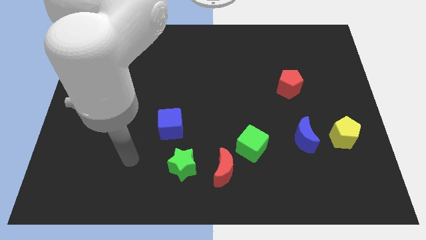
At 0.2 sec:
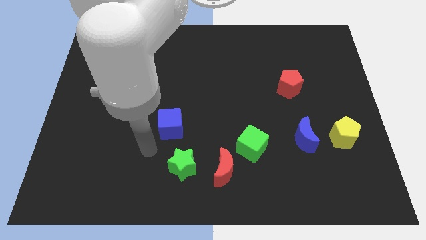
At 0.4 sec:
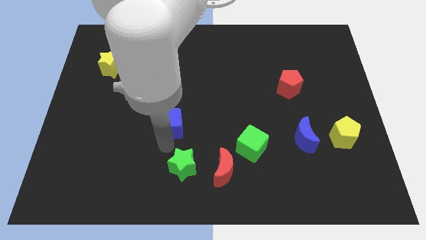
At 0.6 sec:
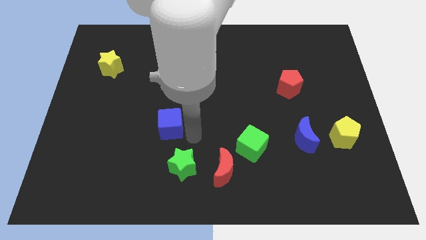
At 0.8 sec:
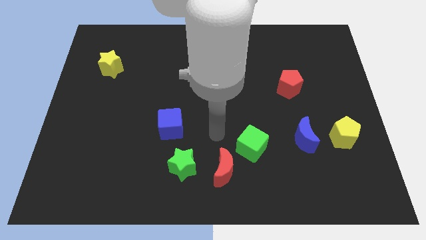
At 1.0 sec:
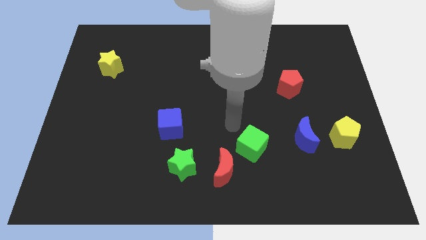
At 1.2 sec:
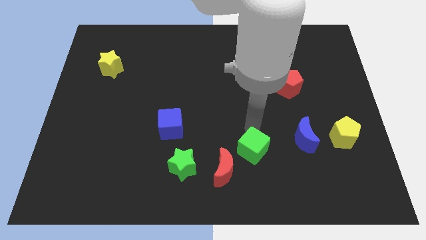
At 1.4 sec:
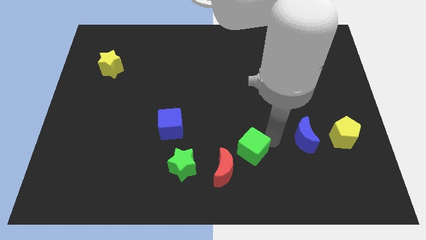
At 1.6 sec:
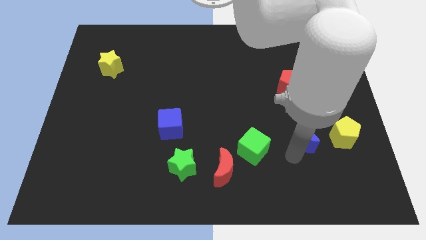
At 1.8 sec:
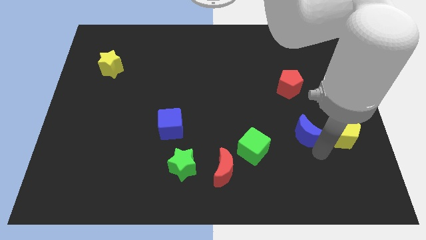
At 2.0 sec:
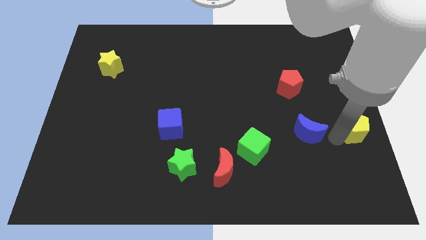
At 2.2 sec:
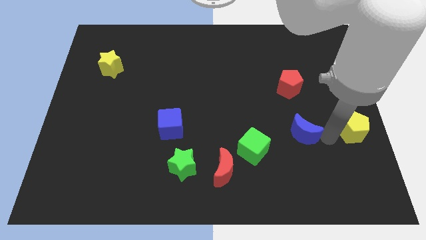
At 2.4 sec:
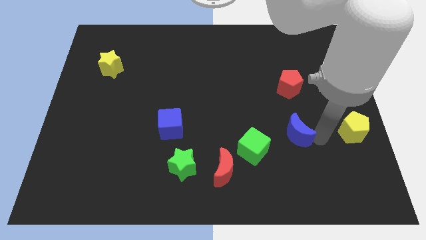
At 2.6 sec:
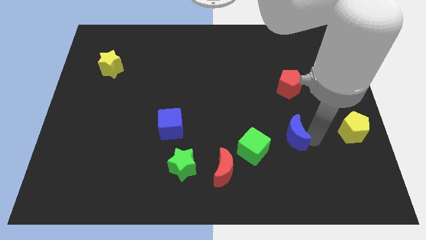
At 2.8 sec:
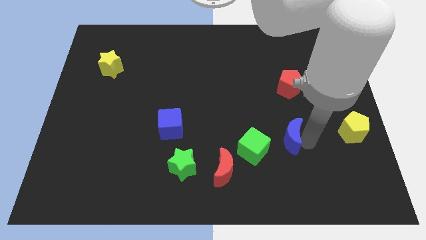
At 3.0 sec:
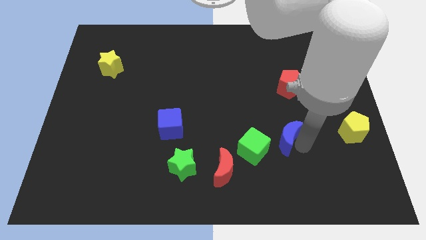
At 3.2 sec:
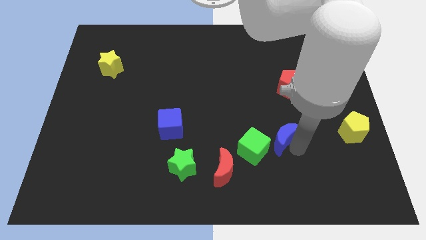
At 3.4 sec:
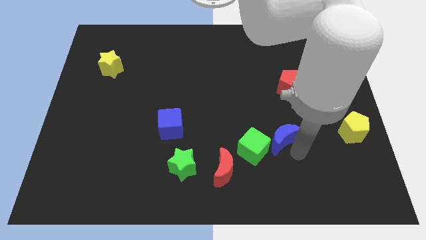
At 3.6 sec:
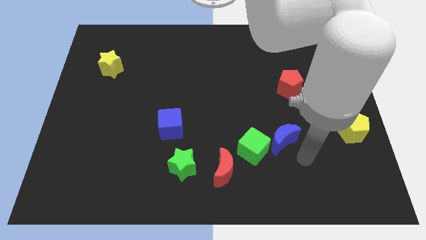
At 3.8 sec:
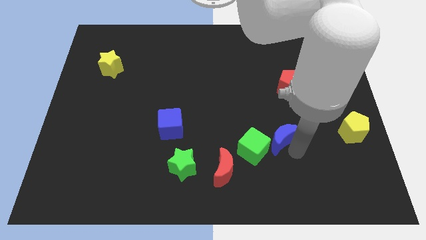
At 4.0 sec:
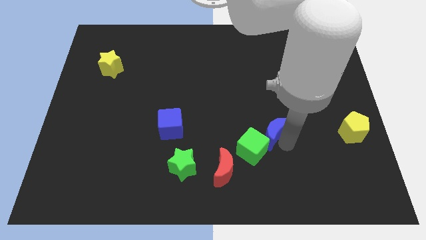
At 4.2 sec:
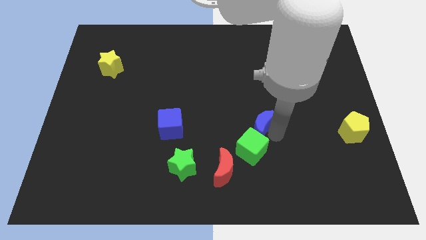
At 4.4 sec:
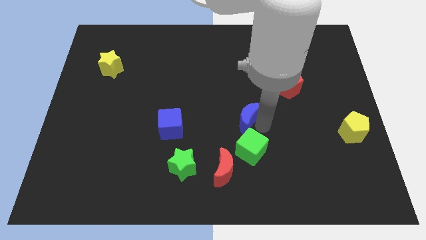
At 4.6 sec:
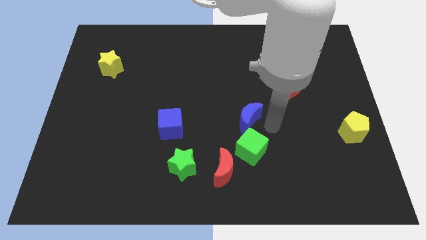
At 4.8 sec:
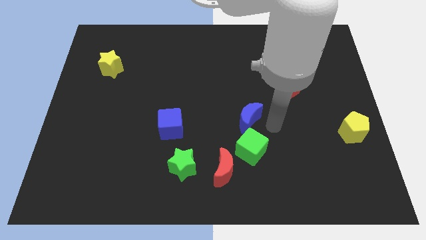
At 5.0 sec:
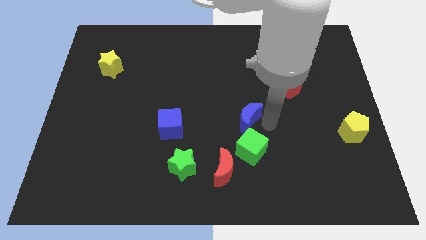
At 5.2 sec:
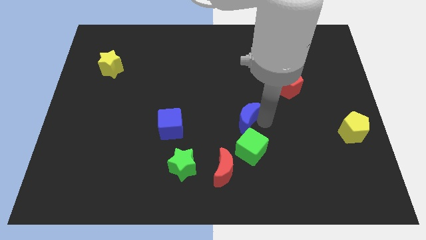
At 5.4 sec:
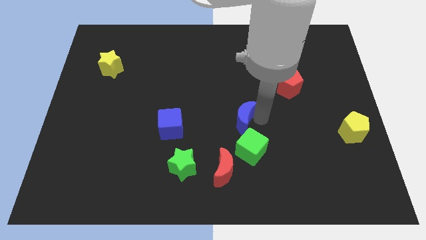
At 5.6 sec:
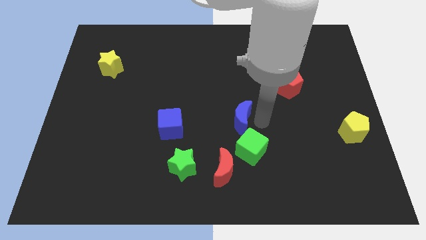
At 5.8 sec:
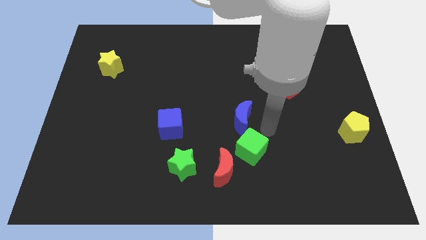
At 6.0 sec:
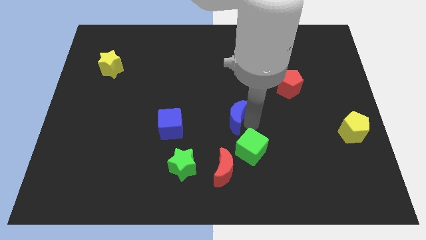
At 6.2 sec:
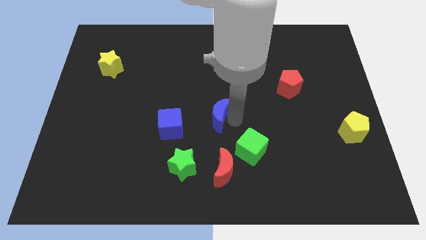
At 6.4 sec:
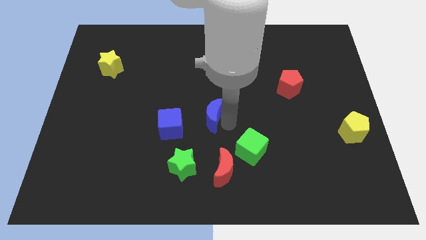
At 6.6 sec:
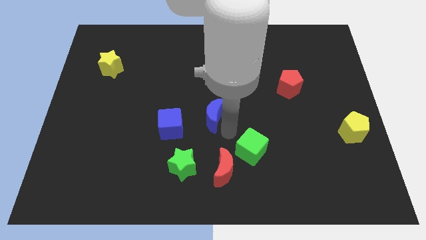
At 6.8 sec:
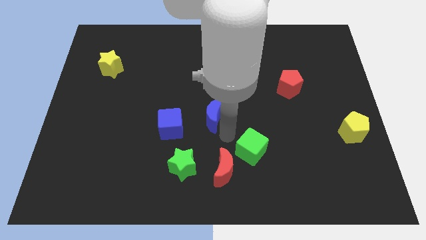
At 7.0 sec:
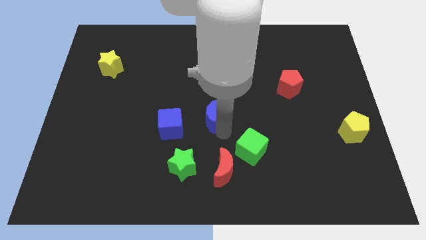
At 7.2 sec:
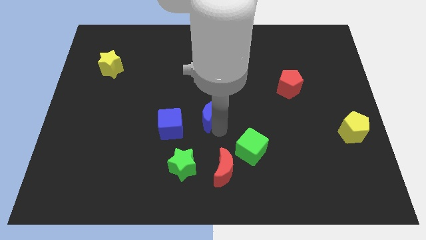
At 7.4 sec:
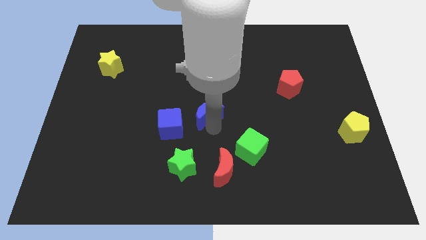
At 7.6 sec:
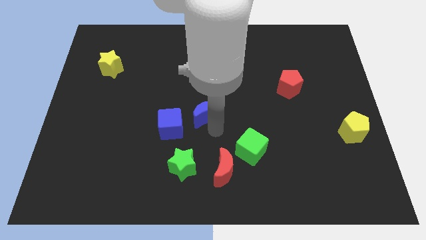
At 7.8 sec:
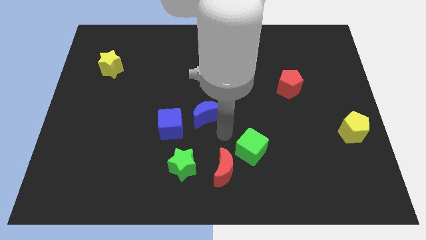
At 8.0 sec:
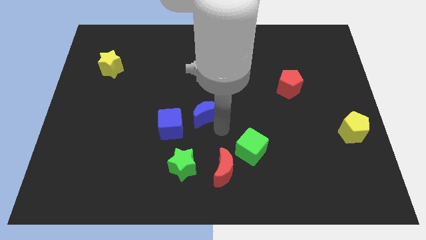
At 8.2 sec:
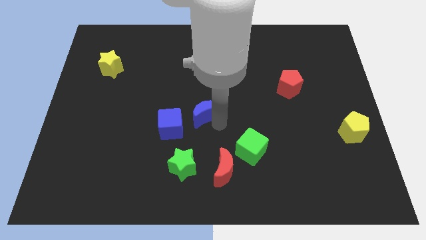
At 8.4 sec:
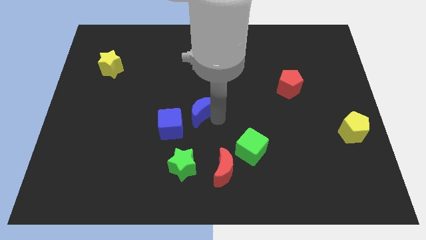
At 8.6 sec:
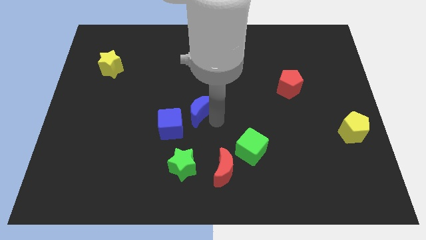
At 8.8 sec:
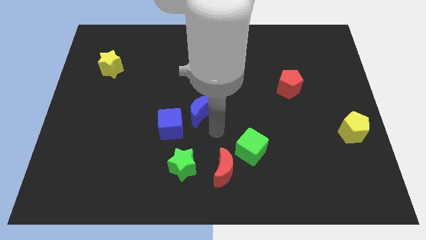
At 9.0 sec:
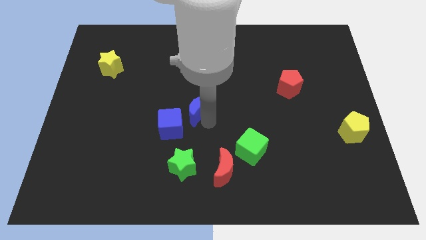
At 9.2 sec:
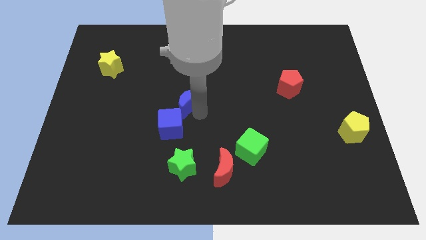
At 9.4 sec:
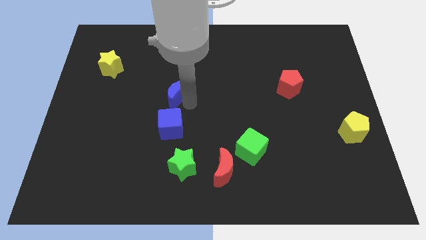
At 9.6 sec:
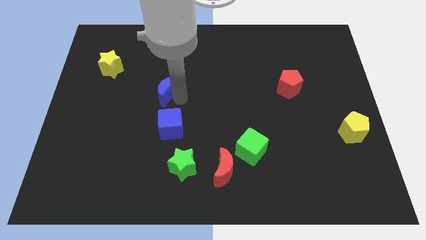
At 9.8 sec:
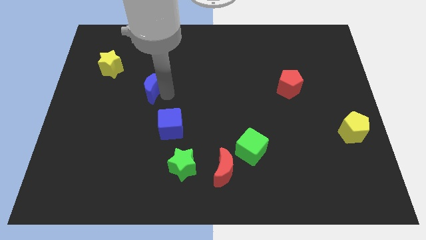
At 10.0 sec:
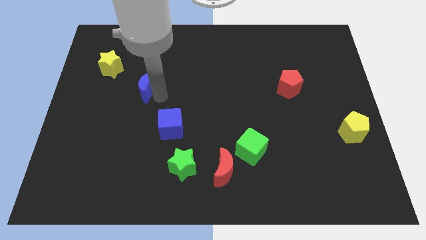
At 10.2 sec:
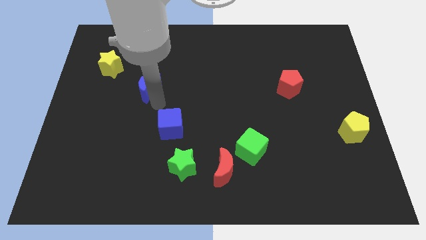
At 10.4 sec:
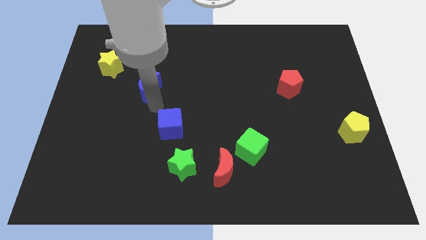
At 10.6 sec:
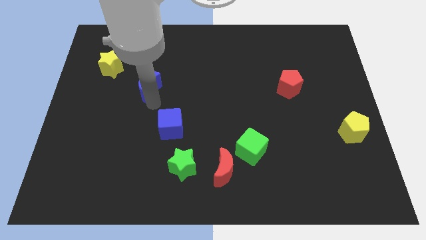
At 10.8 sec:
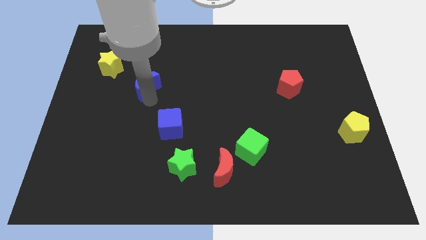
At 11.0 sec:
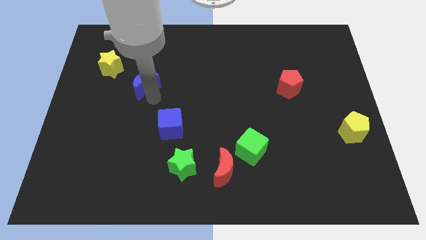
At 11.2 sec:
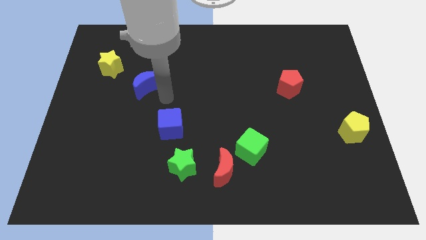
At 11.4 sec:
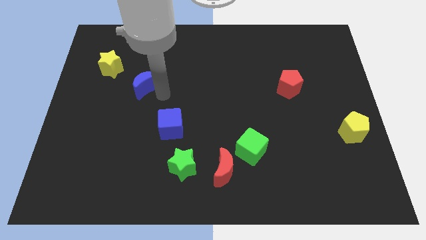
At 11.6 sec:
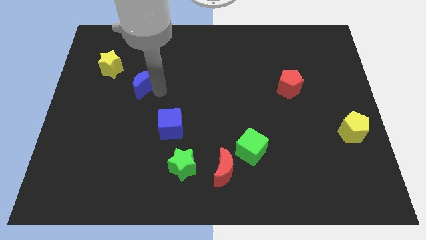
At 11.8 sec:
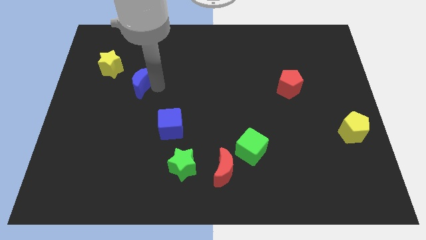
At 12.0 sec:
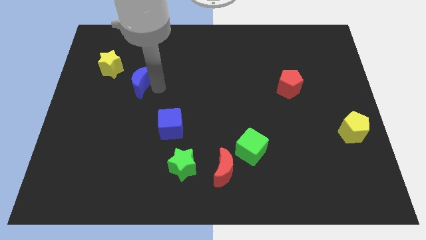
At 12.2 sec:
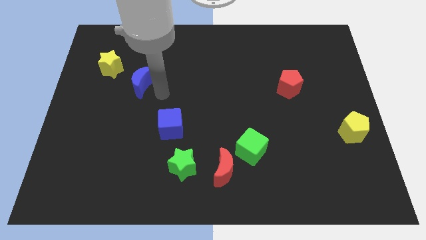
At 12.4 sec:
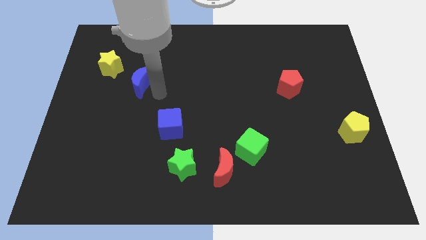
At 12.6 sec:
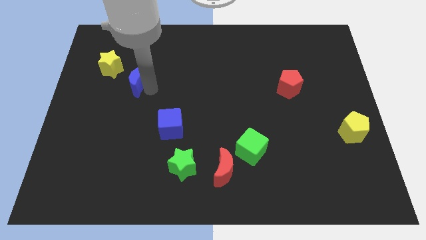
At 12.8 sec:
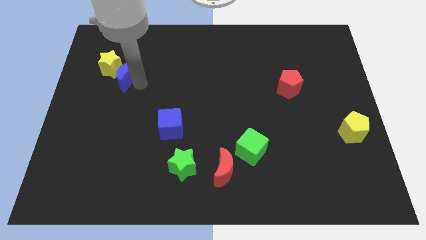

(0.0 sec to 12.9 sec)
move the blue moon next to the yellow star

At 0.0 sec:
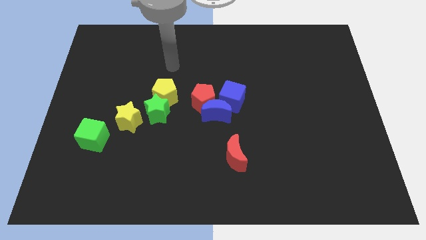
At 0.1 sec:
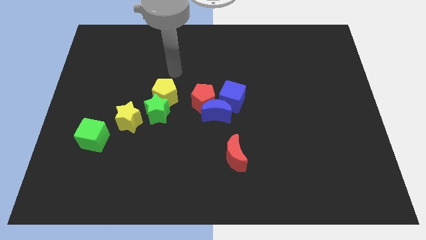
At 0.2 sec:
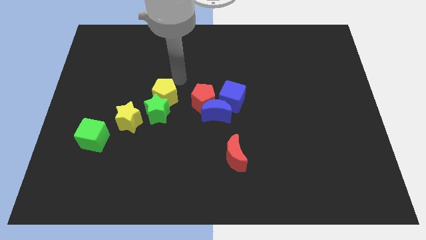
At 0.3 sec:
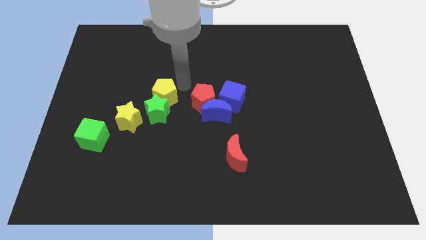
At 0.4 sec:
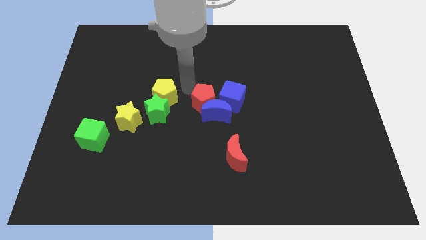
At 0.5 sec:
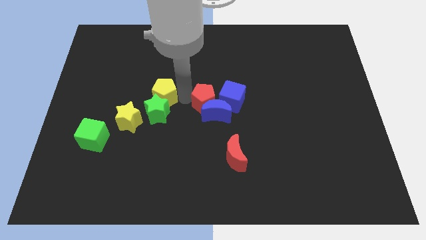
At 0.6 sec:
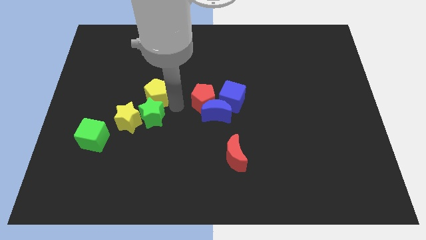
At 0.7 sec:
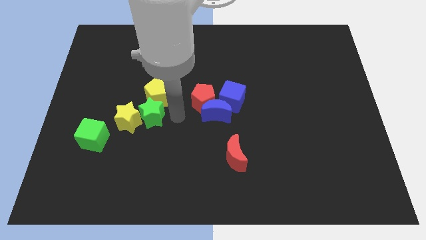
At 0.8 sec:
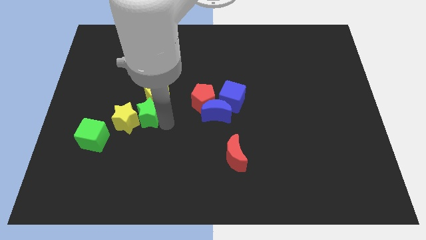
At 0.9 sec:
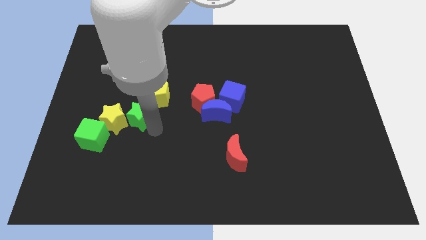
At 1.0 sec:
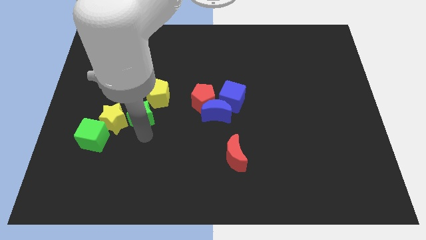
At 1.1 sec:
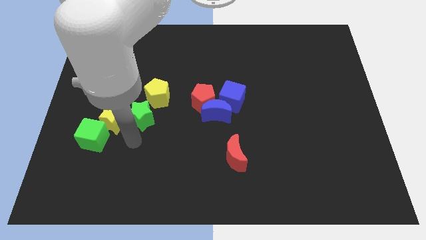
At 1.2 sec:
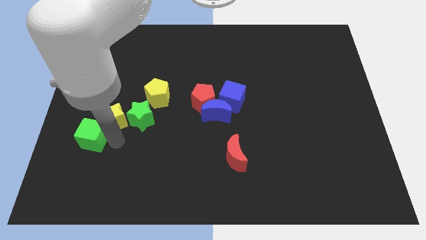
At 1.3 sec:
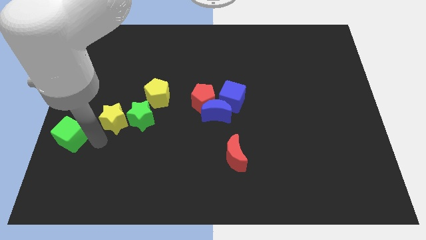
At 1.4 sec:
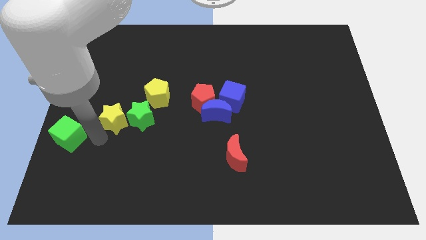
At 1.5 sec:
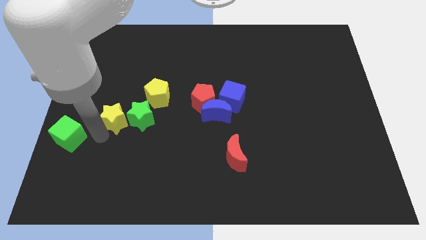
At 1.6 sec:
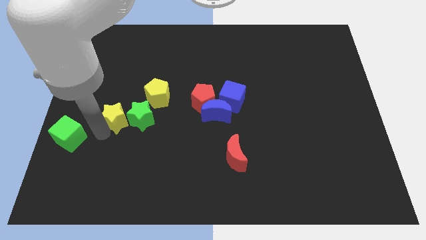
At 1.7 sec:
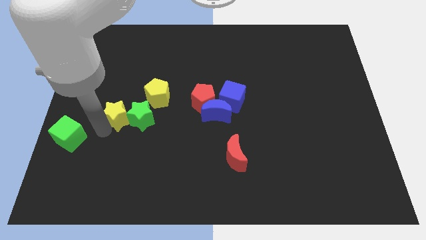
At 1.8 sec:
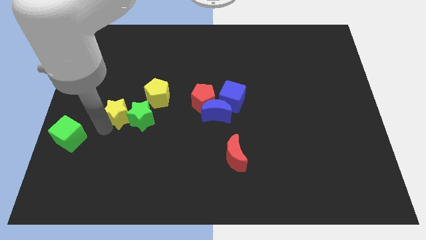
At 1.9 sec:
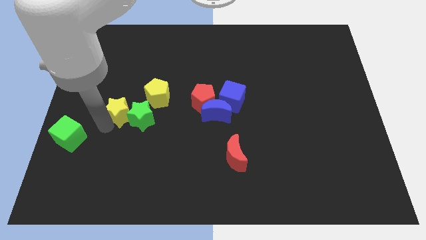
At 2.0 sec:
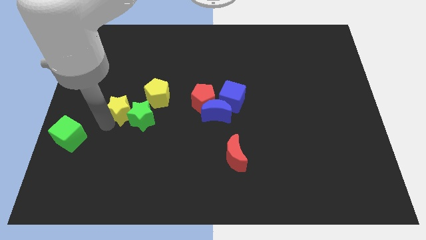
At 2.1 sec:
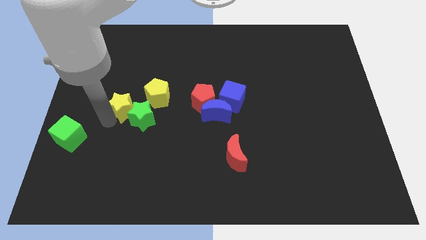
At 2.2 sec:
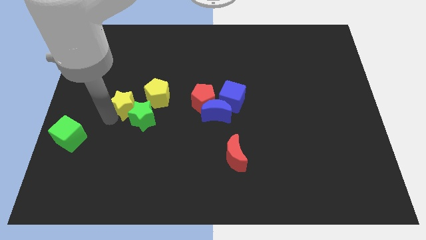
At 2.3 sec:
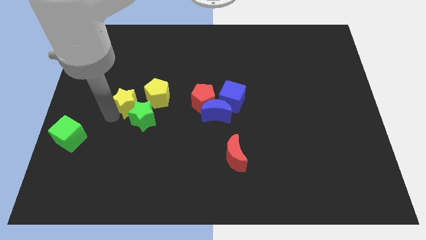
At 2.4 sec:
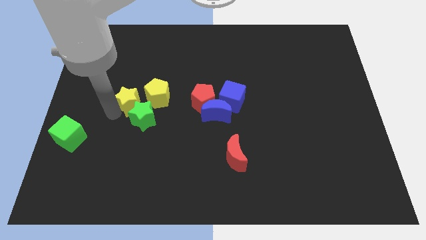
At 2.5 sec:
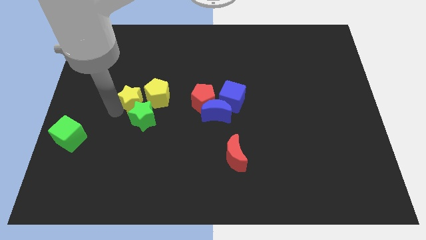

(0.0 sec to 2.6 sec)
put the yellow star close to the yellow pentagon
